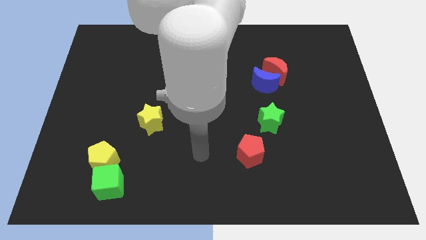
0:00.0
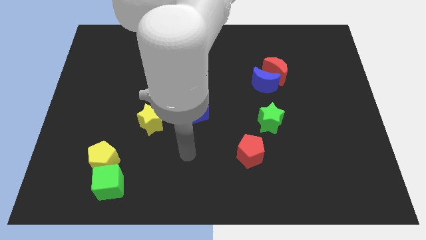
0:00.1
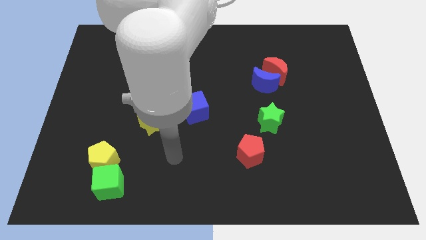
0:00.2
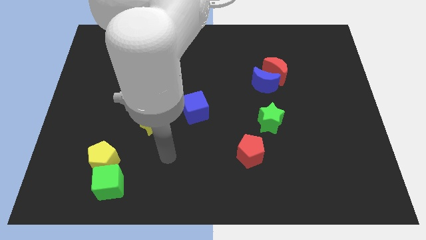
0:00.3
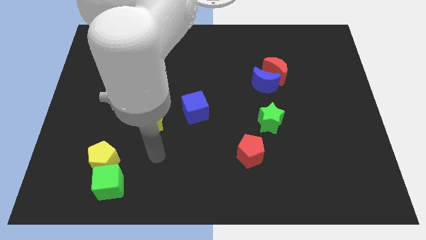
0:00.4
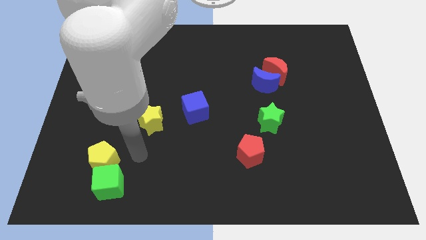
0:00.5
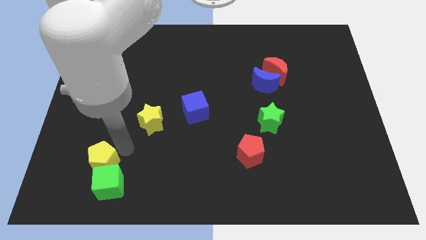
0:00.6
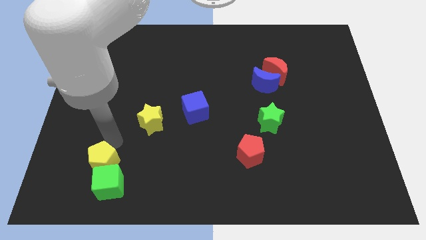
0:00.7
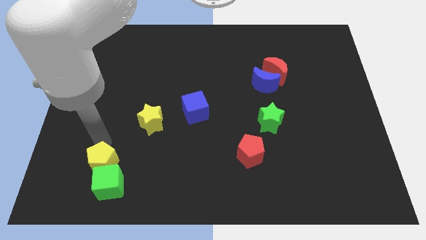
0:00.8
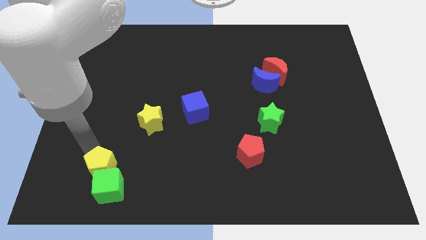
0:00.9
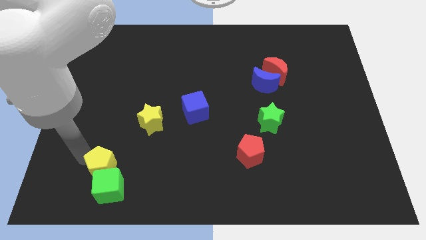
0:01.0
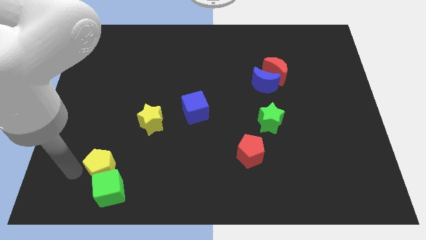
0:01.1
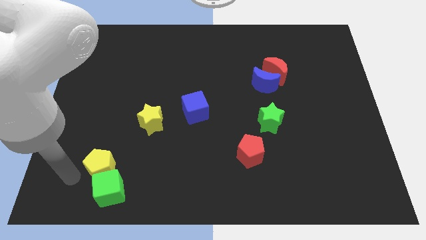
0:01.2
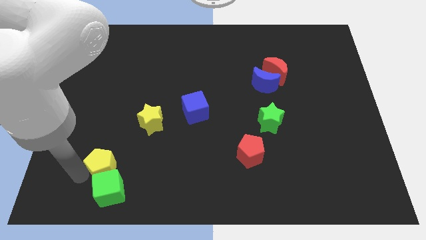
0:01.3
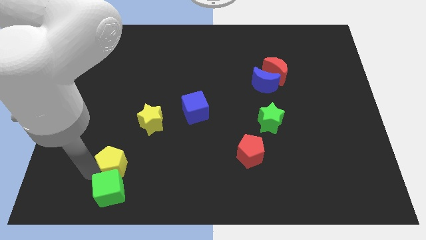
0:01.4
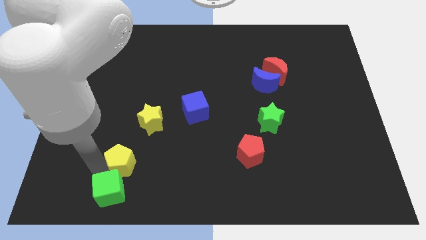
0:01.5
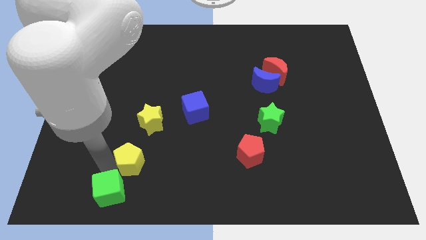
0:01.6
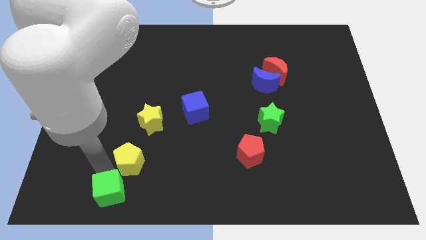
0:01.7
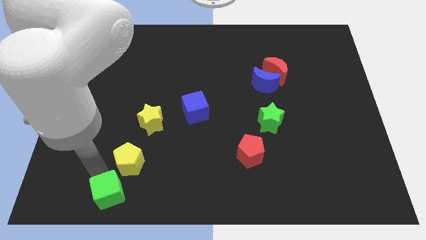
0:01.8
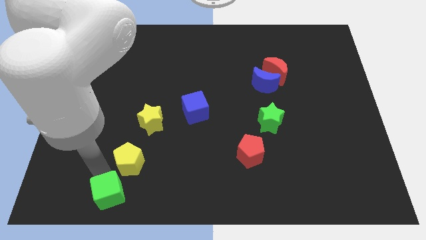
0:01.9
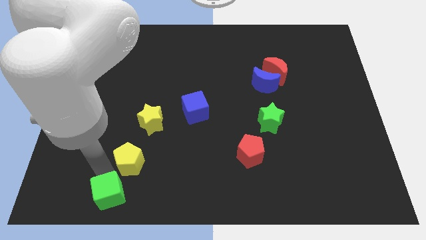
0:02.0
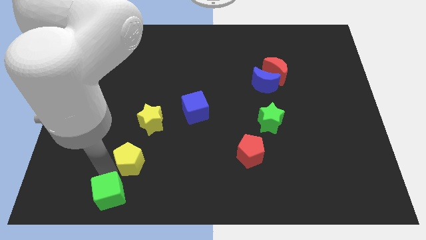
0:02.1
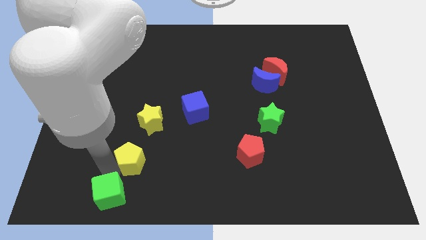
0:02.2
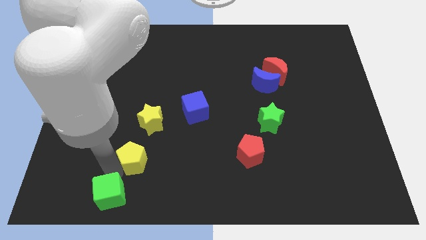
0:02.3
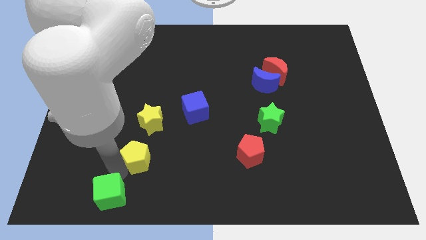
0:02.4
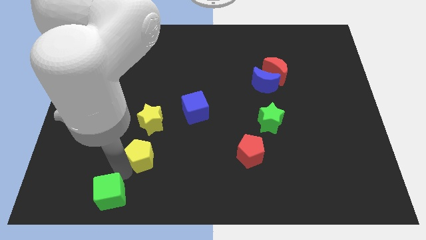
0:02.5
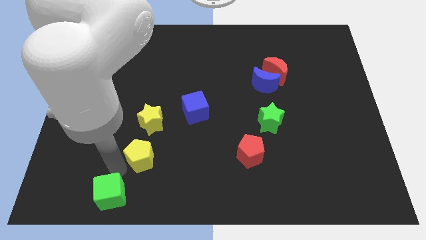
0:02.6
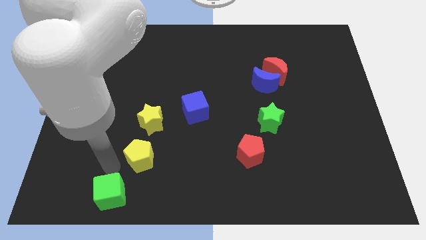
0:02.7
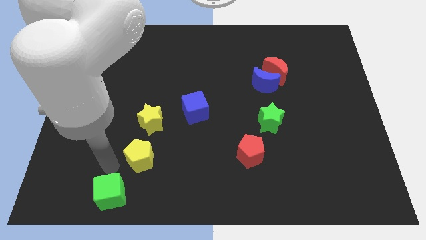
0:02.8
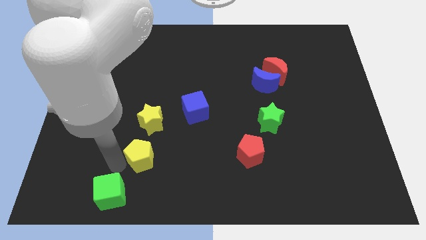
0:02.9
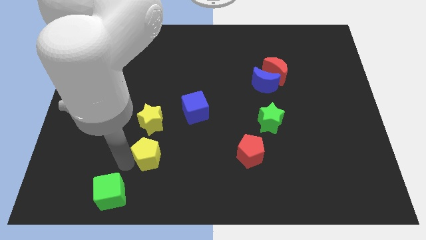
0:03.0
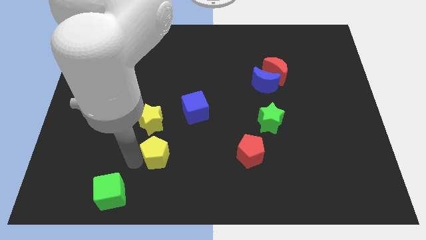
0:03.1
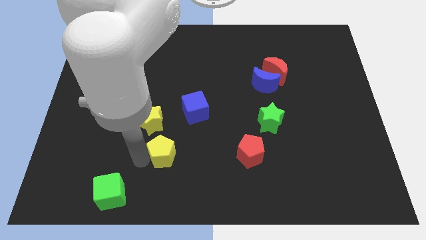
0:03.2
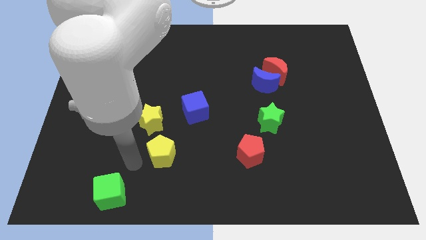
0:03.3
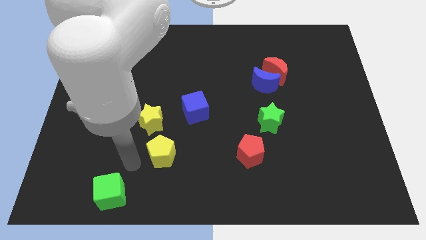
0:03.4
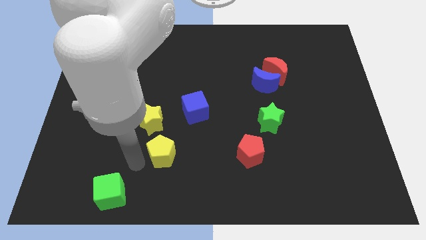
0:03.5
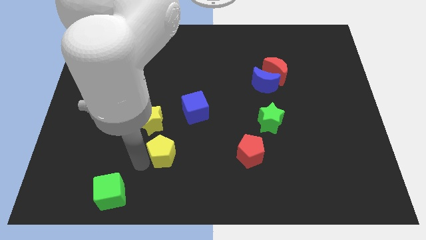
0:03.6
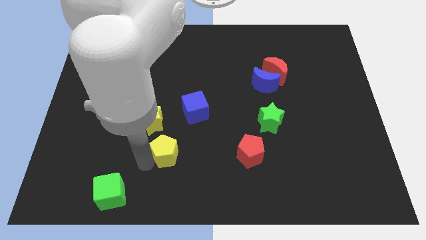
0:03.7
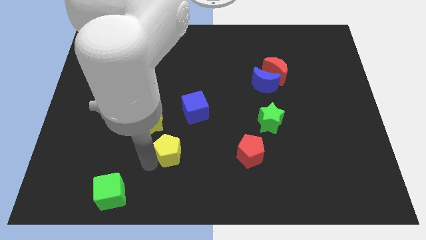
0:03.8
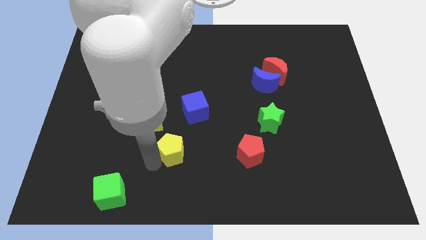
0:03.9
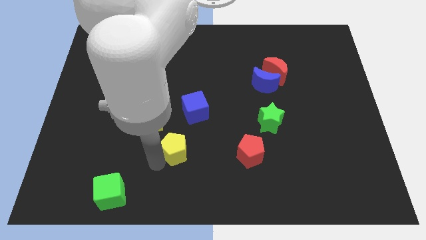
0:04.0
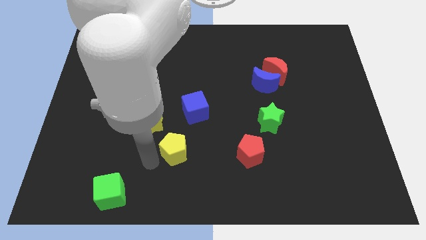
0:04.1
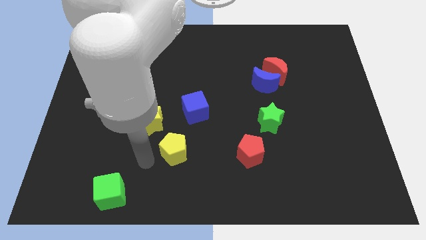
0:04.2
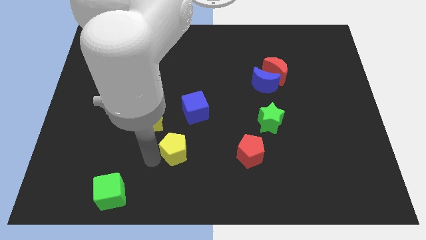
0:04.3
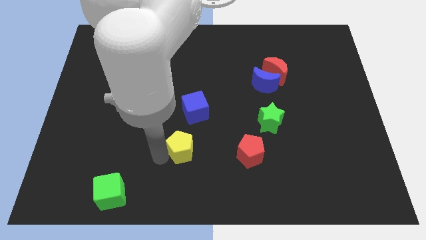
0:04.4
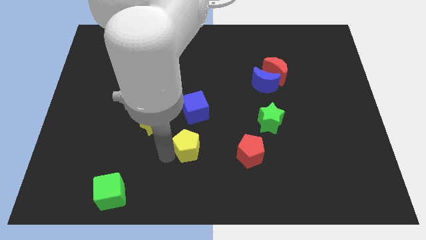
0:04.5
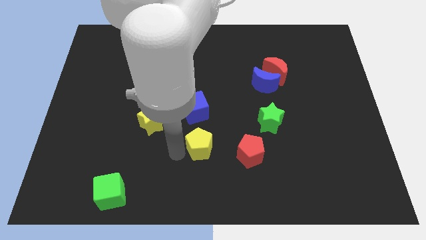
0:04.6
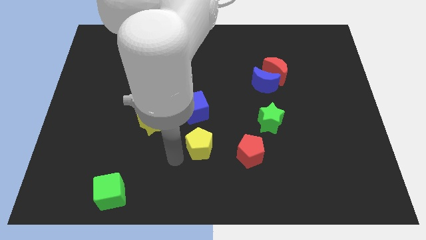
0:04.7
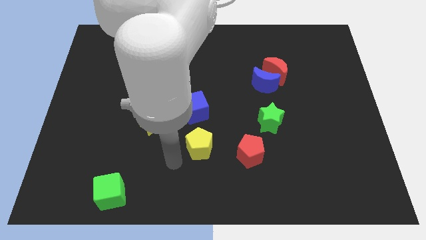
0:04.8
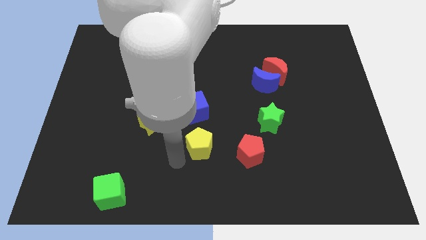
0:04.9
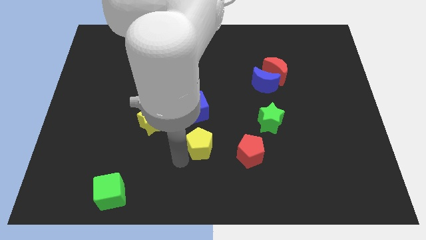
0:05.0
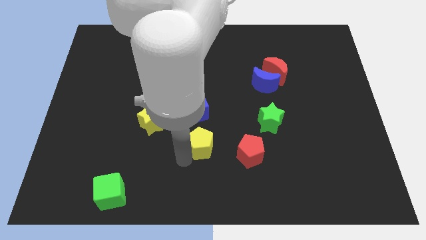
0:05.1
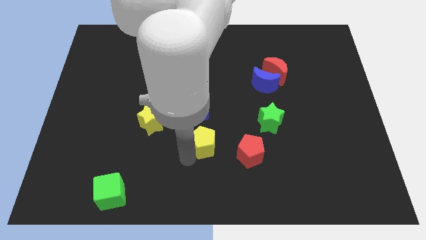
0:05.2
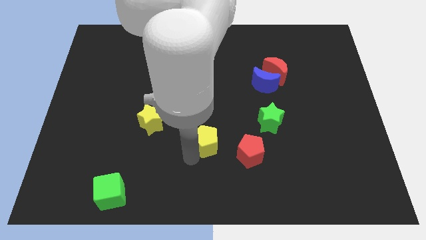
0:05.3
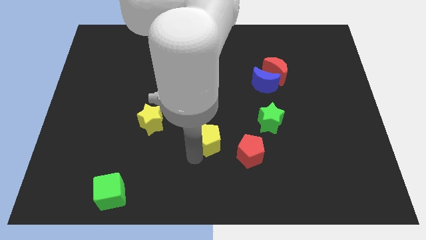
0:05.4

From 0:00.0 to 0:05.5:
move the yellow pentagon diagonally up and to the left of the red pentagon

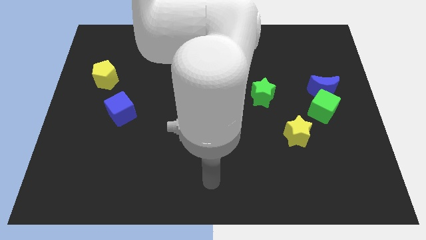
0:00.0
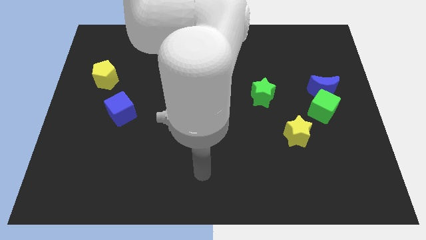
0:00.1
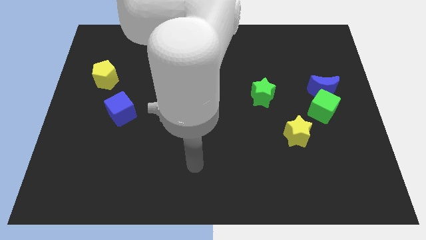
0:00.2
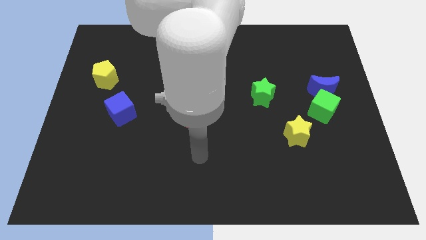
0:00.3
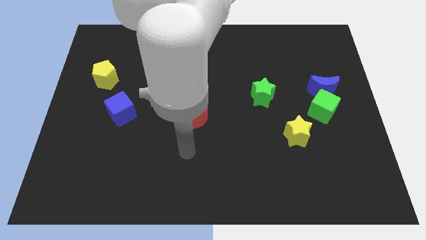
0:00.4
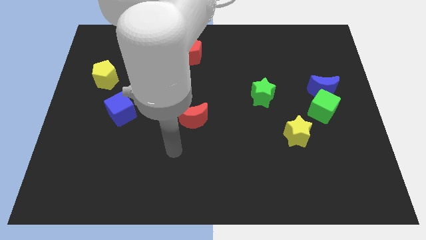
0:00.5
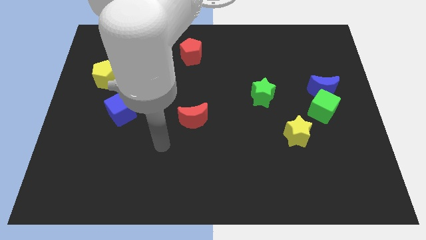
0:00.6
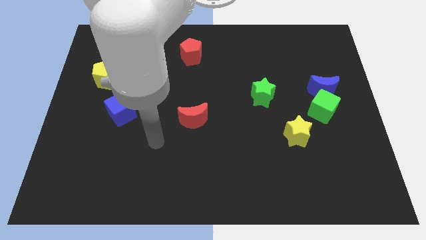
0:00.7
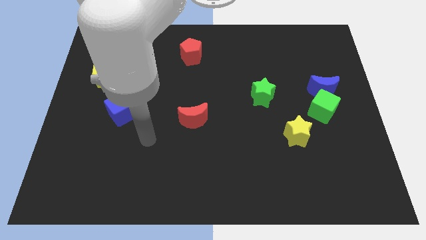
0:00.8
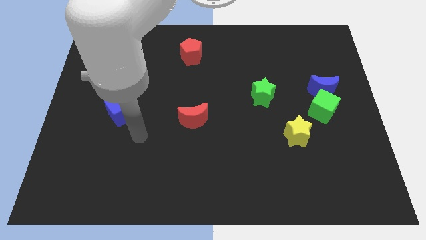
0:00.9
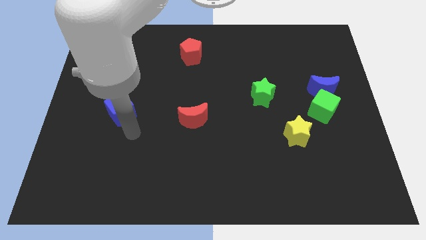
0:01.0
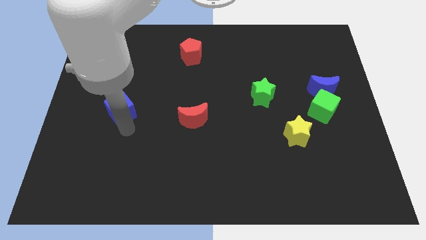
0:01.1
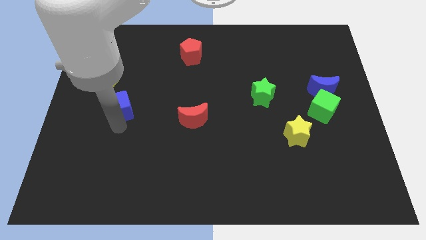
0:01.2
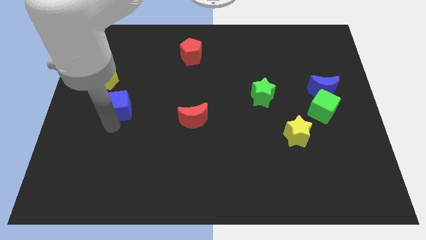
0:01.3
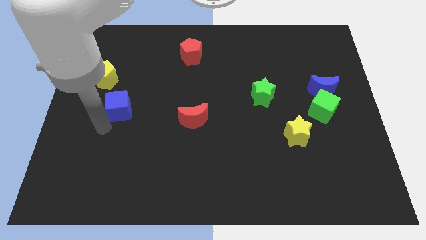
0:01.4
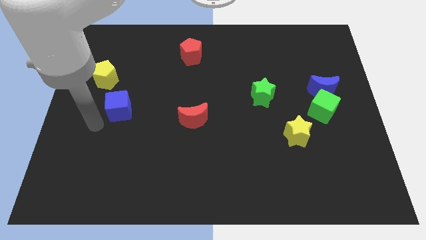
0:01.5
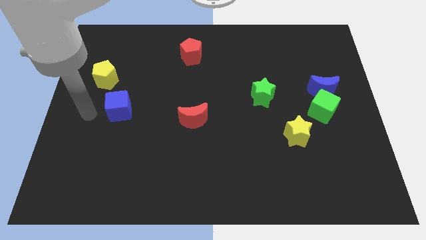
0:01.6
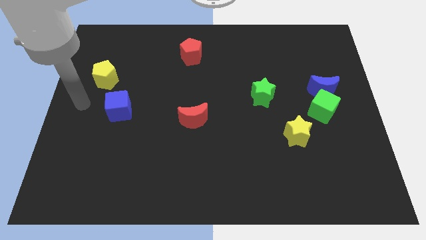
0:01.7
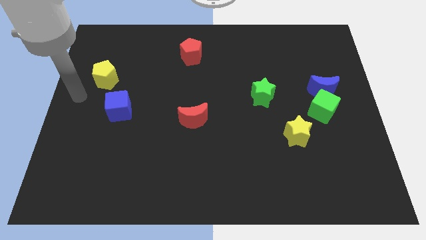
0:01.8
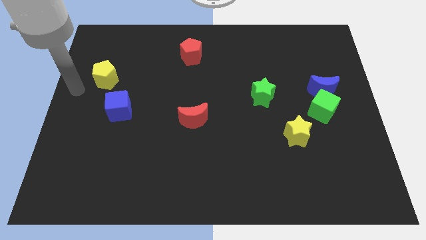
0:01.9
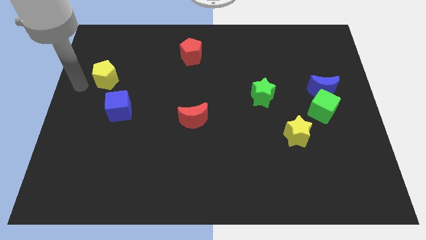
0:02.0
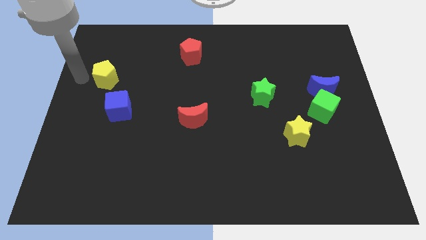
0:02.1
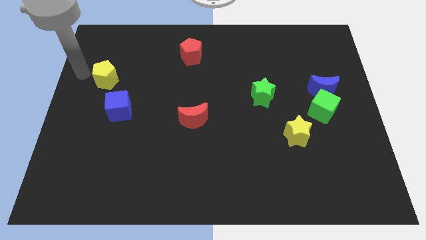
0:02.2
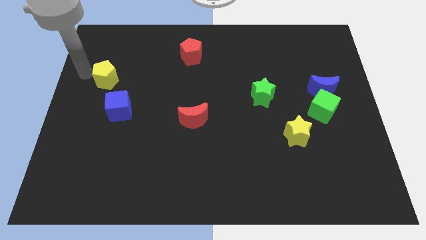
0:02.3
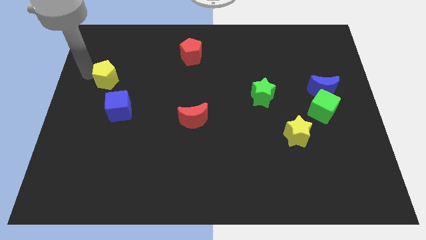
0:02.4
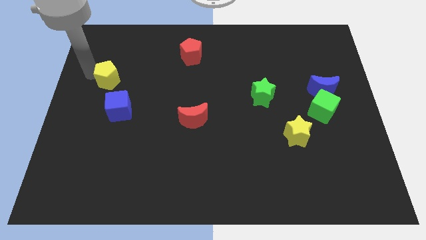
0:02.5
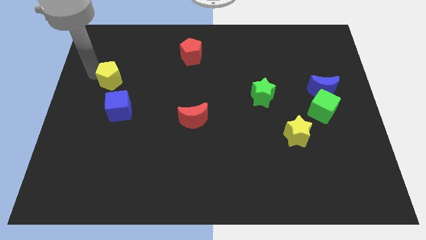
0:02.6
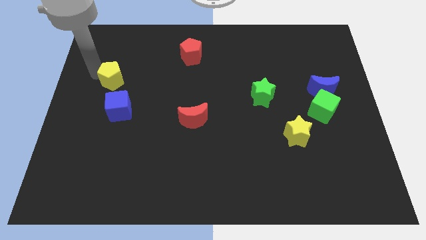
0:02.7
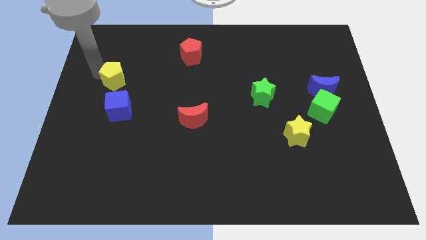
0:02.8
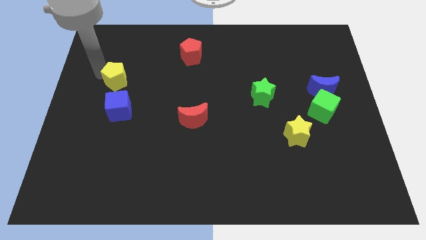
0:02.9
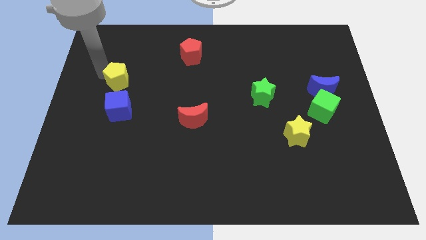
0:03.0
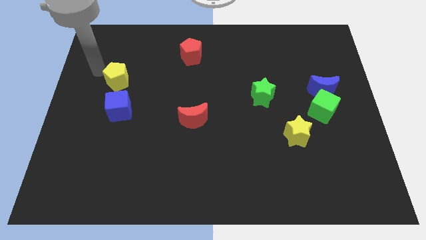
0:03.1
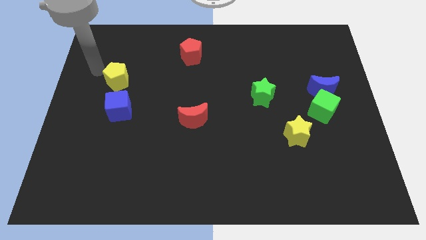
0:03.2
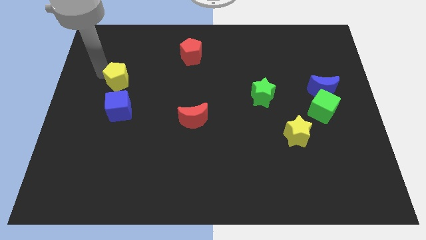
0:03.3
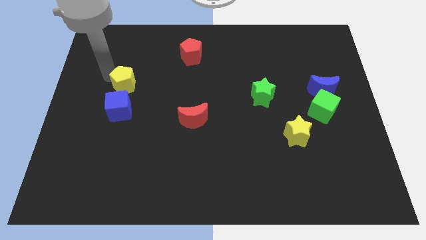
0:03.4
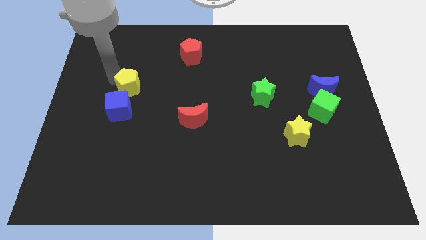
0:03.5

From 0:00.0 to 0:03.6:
push the yellow pentagon to the top right of the blue cube
